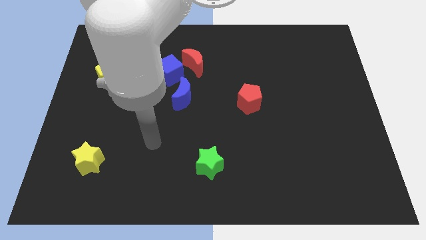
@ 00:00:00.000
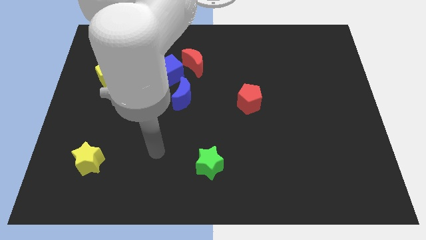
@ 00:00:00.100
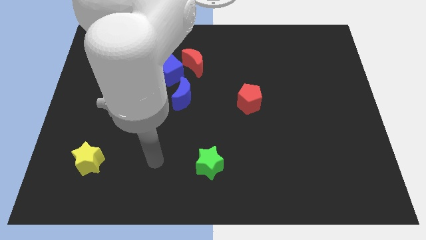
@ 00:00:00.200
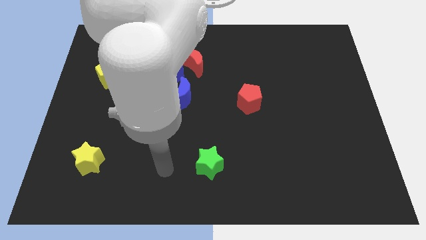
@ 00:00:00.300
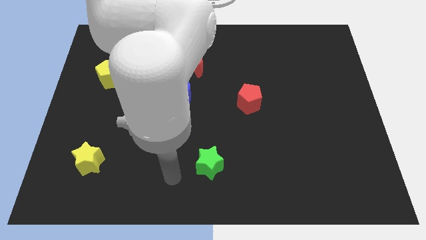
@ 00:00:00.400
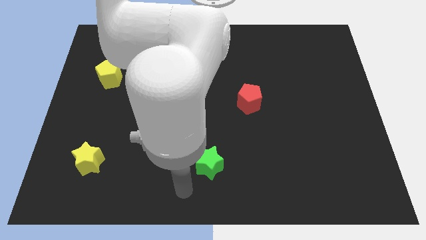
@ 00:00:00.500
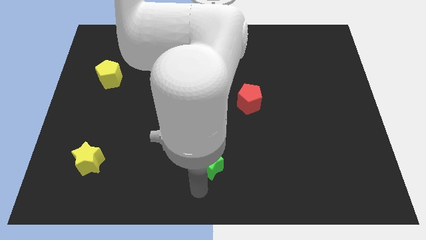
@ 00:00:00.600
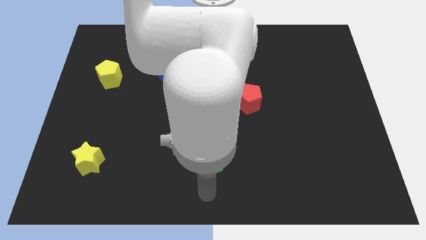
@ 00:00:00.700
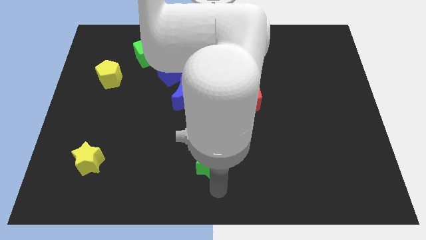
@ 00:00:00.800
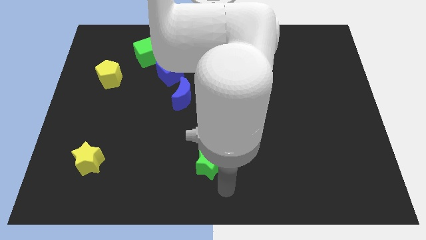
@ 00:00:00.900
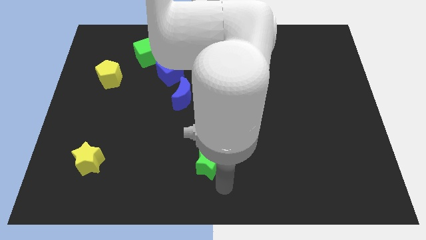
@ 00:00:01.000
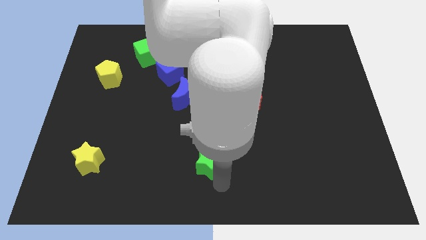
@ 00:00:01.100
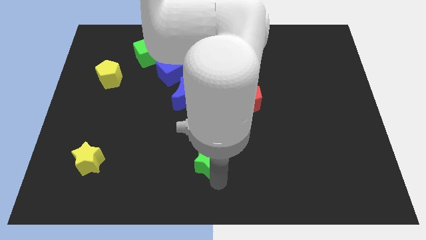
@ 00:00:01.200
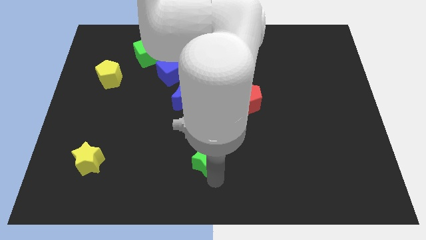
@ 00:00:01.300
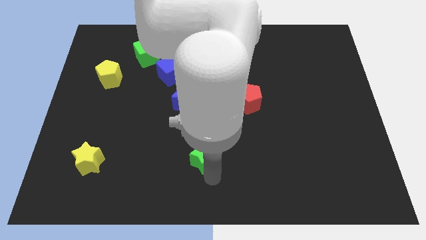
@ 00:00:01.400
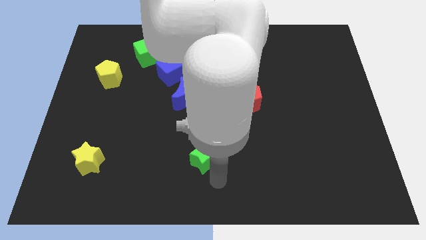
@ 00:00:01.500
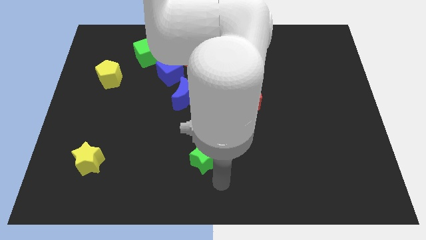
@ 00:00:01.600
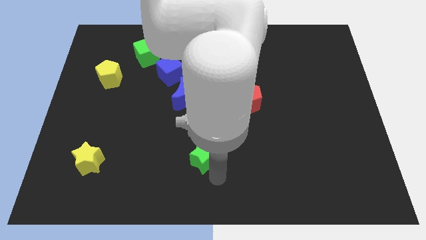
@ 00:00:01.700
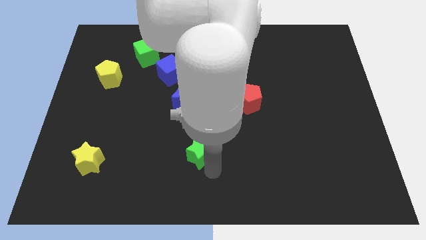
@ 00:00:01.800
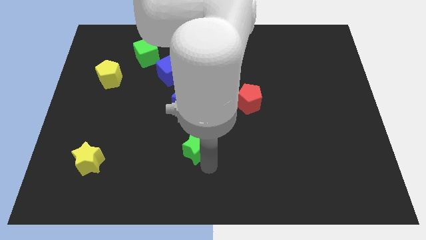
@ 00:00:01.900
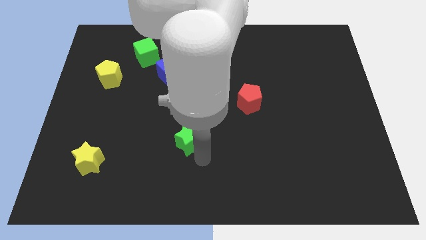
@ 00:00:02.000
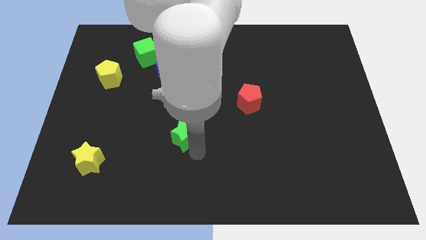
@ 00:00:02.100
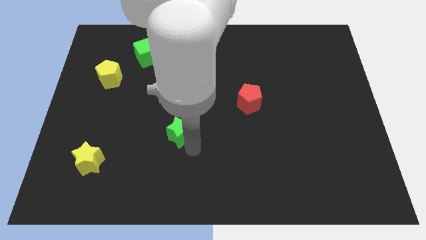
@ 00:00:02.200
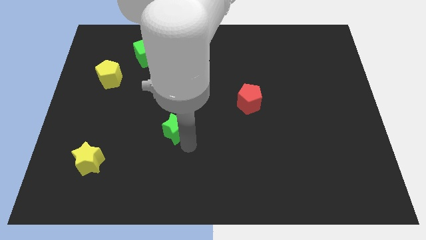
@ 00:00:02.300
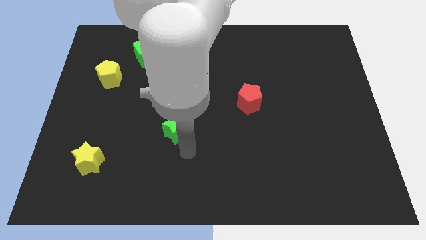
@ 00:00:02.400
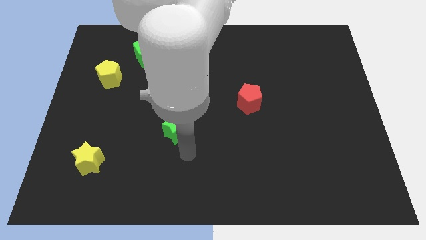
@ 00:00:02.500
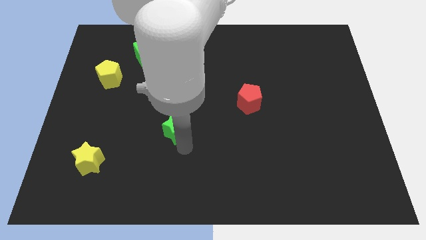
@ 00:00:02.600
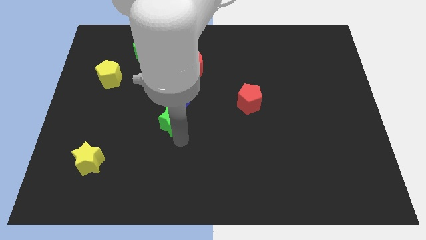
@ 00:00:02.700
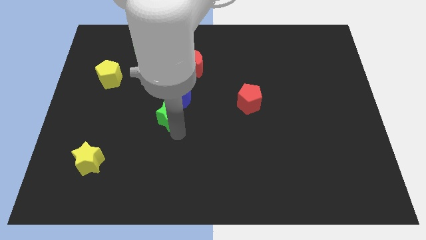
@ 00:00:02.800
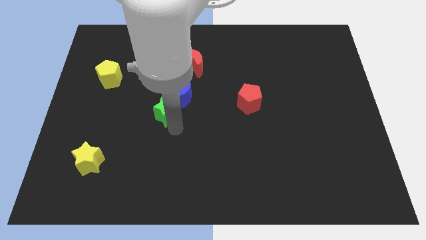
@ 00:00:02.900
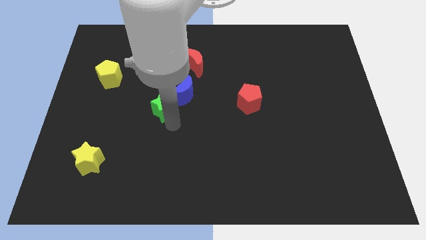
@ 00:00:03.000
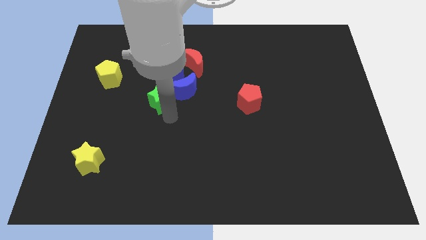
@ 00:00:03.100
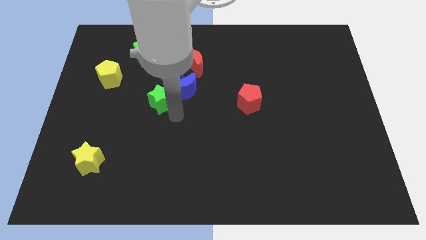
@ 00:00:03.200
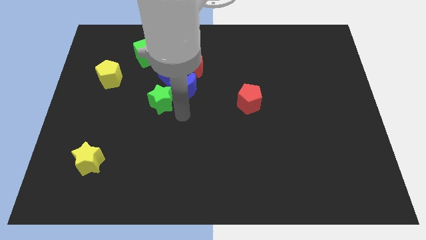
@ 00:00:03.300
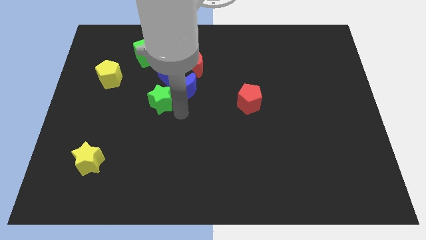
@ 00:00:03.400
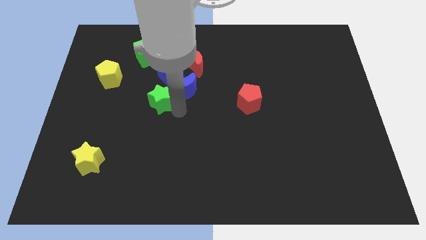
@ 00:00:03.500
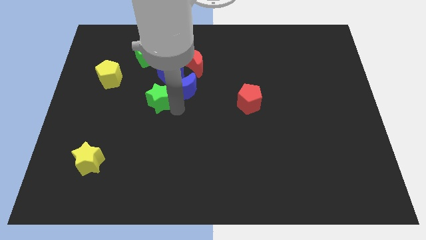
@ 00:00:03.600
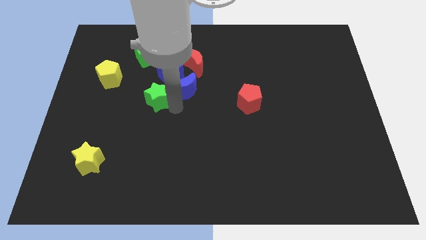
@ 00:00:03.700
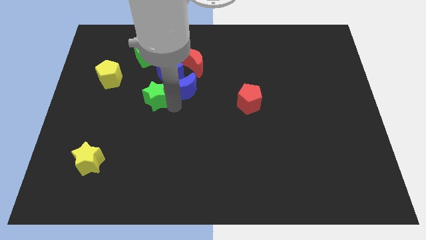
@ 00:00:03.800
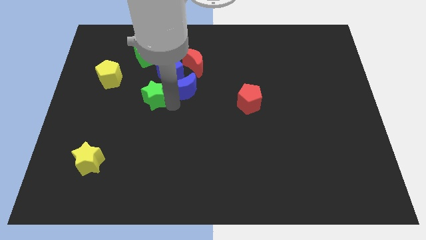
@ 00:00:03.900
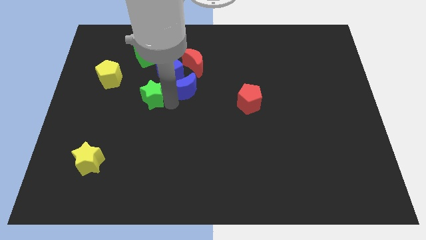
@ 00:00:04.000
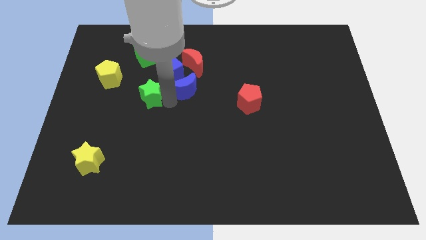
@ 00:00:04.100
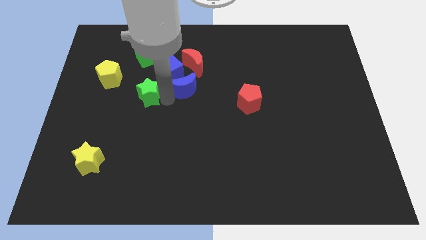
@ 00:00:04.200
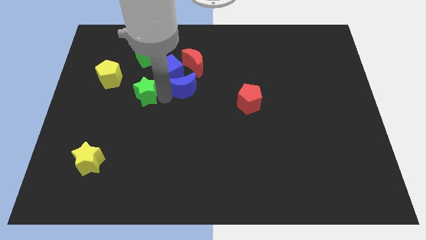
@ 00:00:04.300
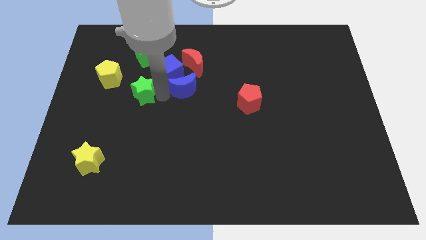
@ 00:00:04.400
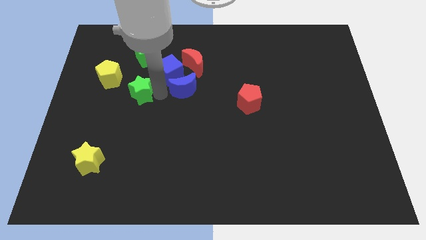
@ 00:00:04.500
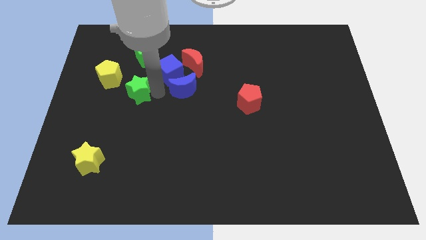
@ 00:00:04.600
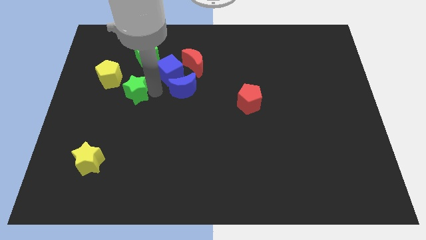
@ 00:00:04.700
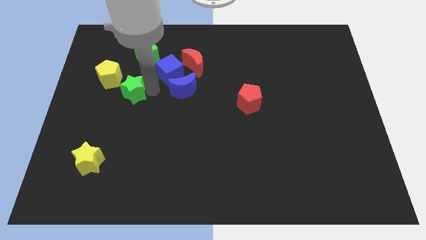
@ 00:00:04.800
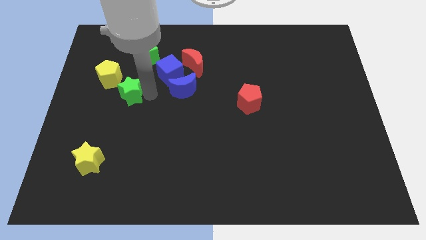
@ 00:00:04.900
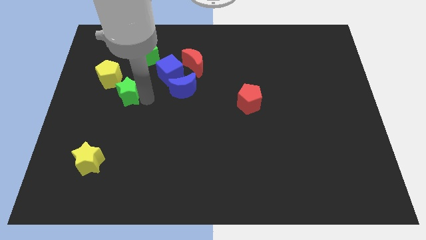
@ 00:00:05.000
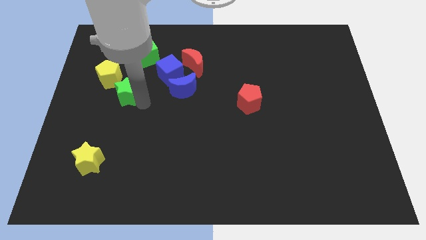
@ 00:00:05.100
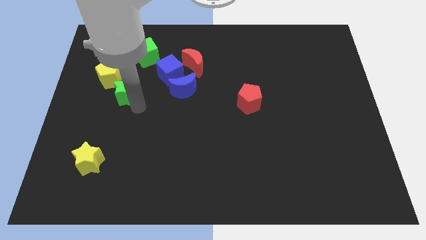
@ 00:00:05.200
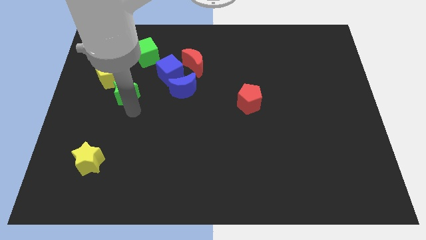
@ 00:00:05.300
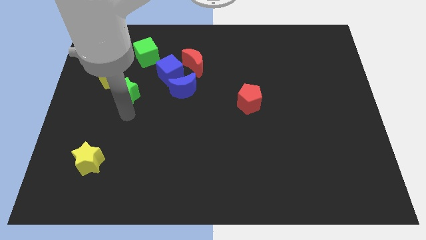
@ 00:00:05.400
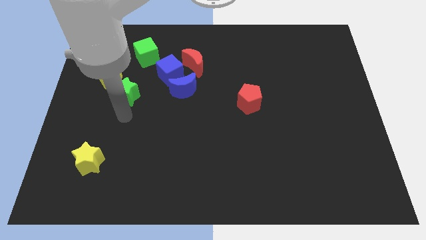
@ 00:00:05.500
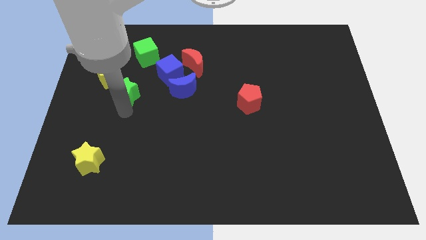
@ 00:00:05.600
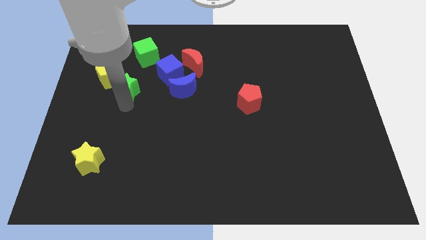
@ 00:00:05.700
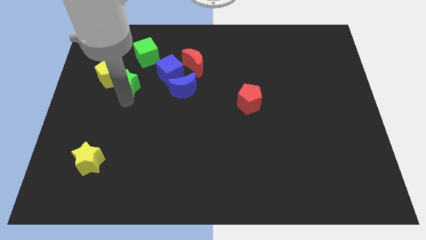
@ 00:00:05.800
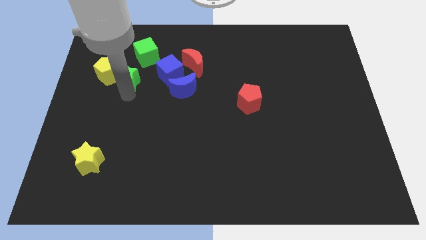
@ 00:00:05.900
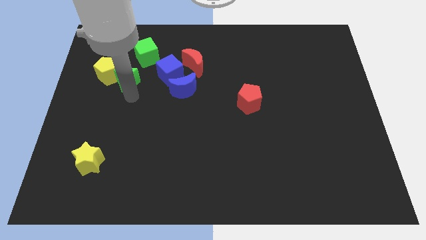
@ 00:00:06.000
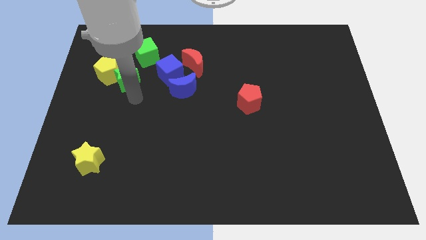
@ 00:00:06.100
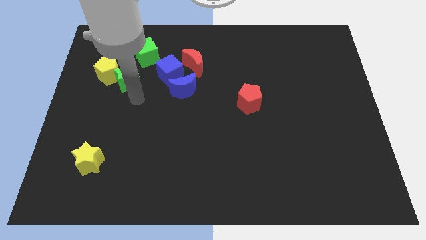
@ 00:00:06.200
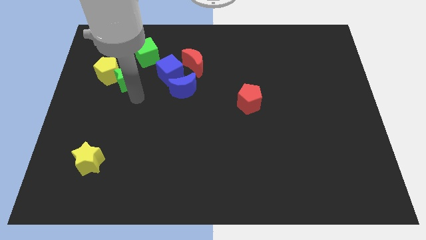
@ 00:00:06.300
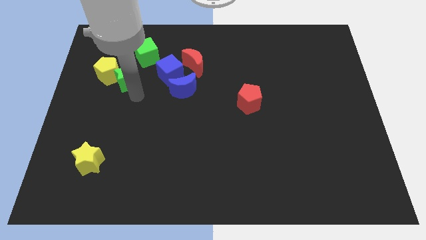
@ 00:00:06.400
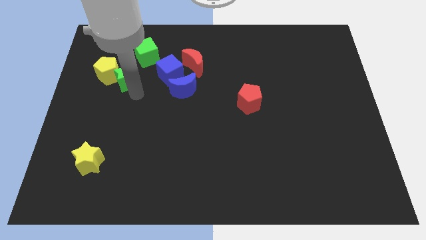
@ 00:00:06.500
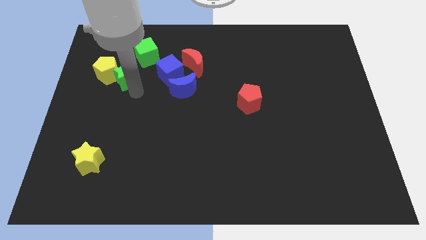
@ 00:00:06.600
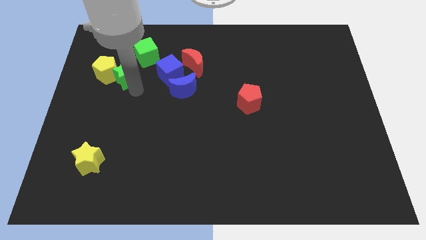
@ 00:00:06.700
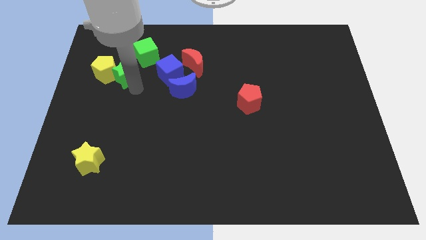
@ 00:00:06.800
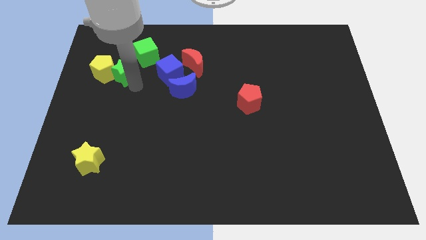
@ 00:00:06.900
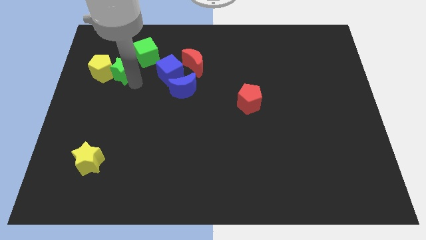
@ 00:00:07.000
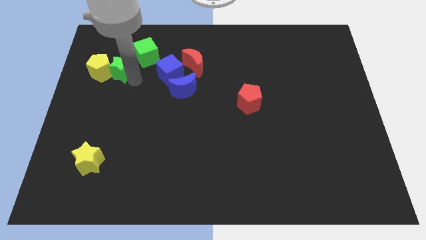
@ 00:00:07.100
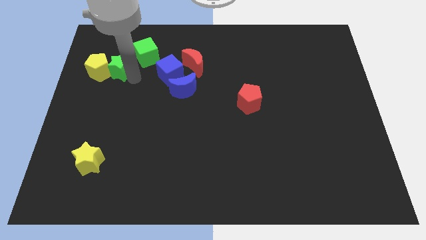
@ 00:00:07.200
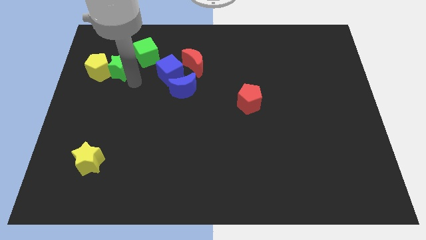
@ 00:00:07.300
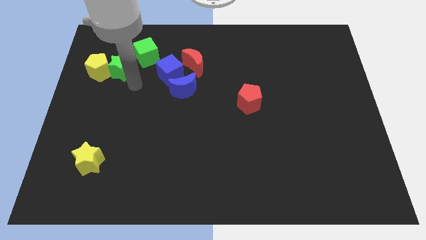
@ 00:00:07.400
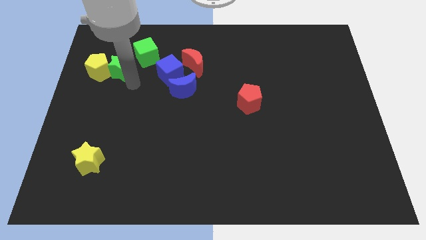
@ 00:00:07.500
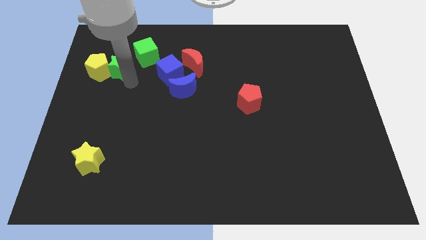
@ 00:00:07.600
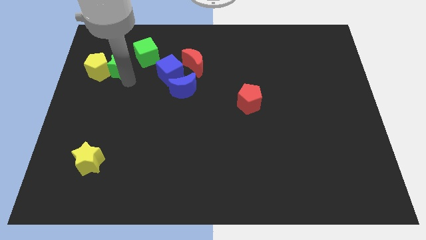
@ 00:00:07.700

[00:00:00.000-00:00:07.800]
put the green star to the left side of the green cube
